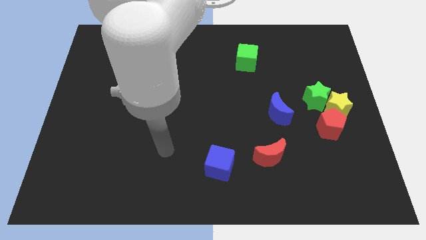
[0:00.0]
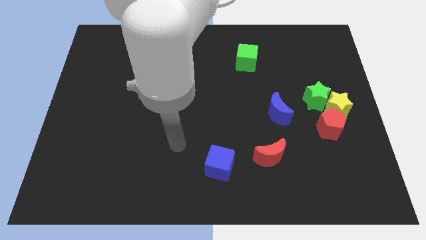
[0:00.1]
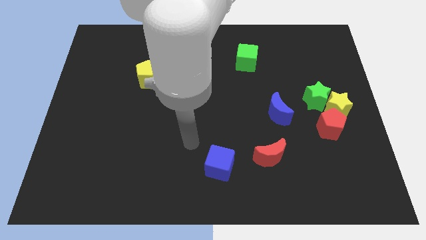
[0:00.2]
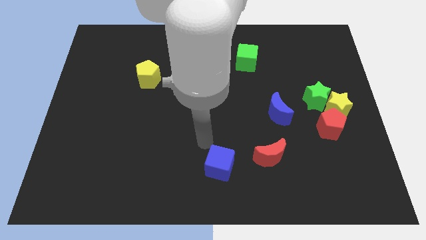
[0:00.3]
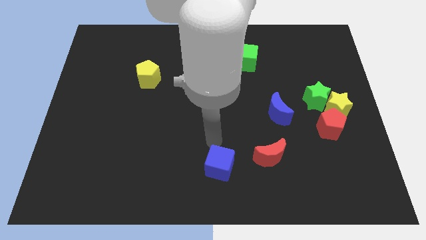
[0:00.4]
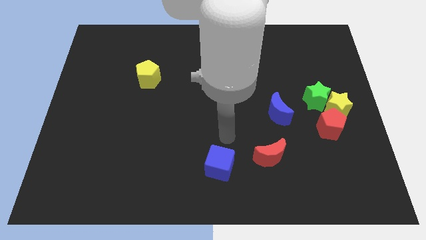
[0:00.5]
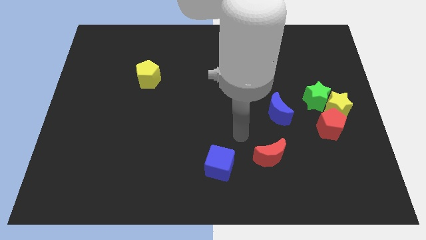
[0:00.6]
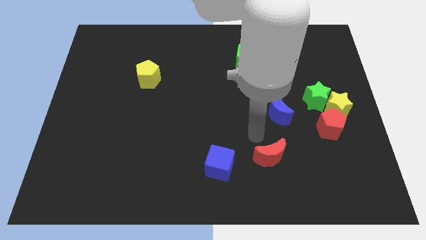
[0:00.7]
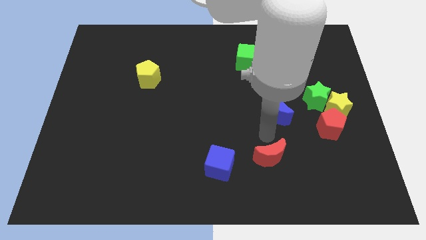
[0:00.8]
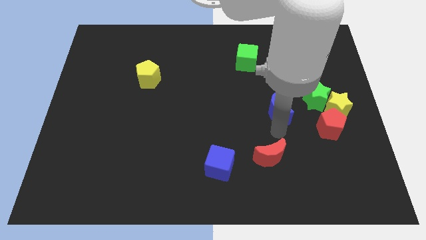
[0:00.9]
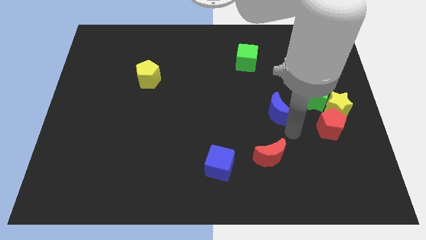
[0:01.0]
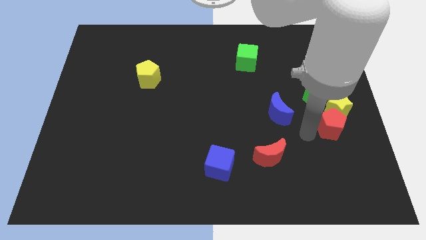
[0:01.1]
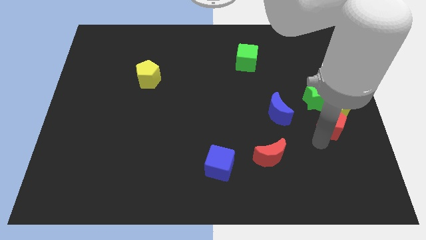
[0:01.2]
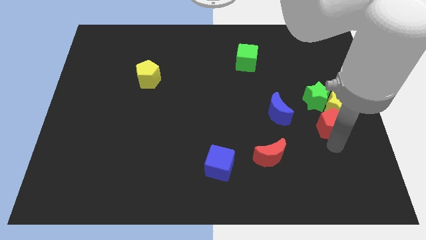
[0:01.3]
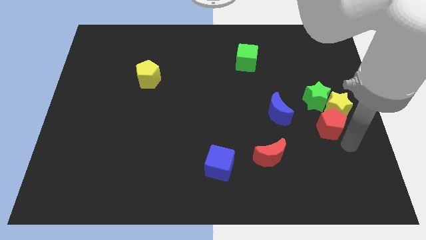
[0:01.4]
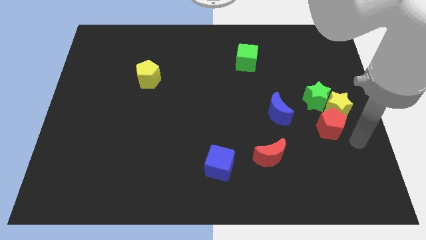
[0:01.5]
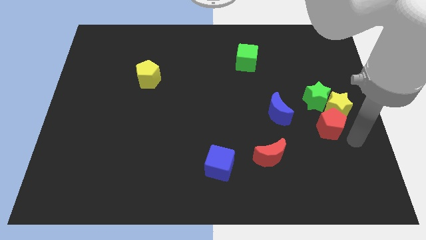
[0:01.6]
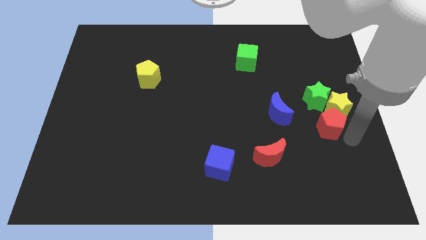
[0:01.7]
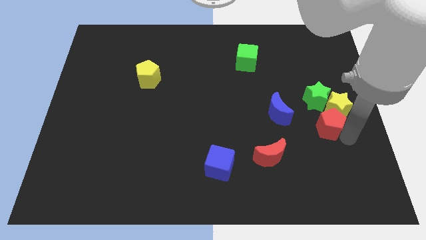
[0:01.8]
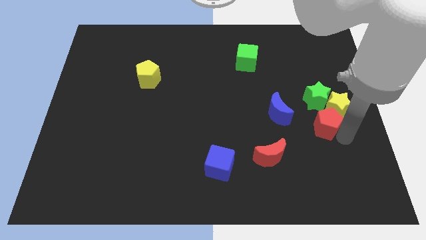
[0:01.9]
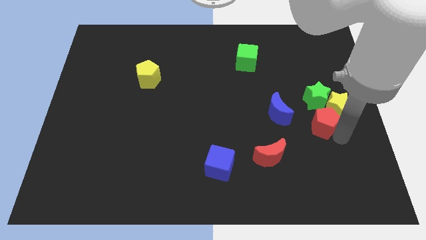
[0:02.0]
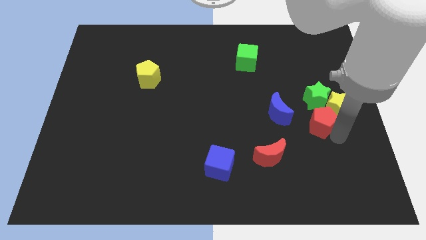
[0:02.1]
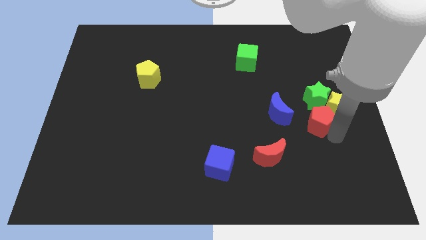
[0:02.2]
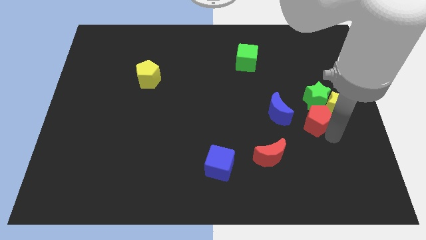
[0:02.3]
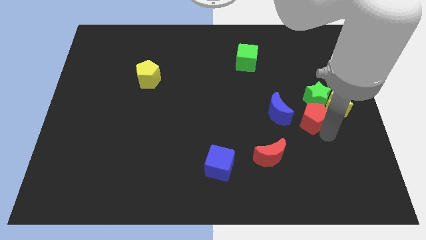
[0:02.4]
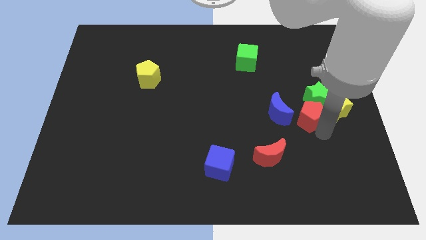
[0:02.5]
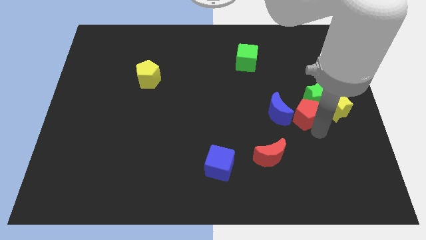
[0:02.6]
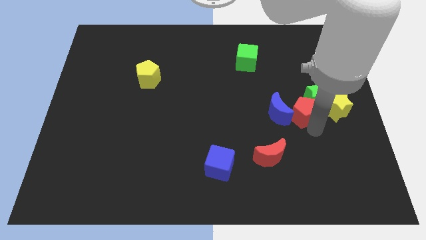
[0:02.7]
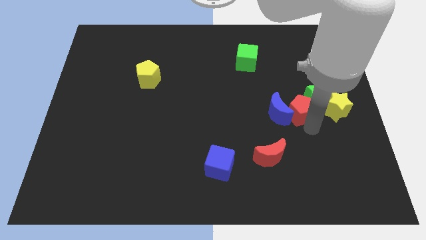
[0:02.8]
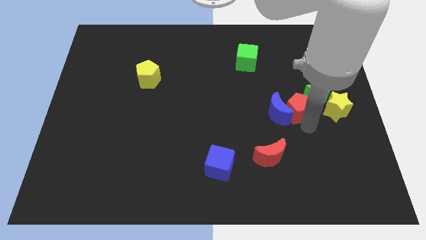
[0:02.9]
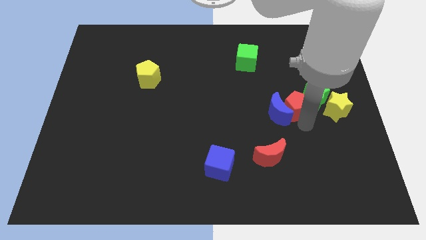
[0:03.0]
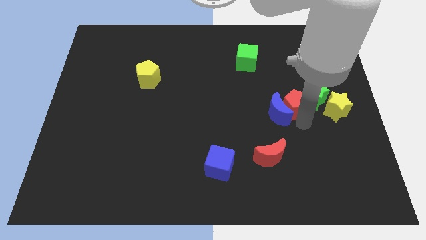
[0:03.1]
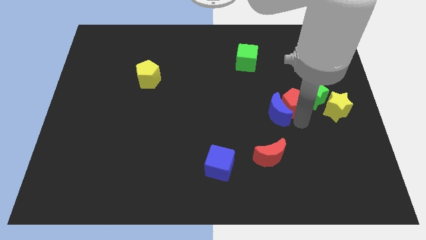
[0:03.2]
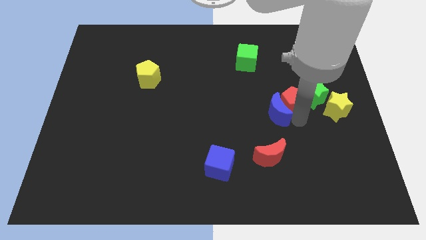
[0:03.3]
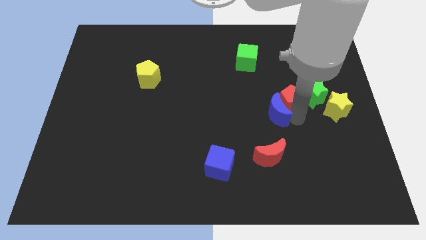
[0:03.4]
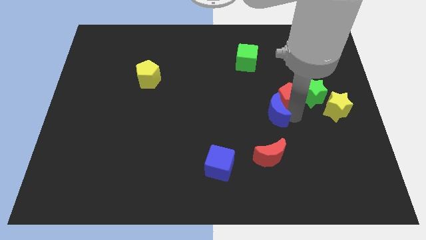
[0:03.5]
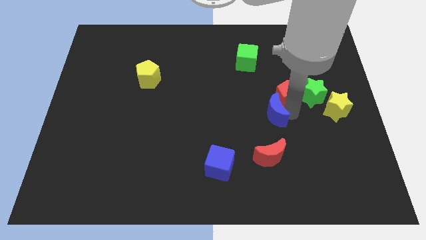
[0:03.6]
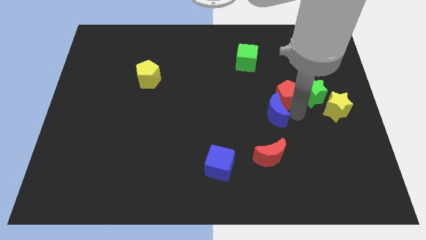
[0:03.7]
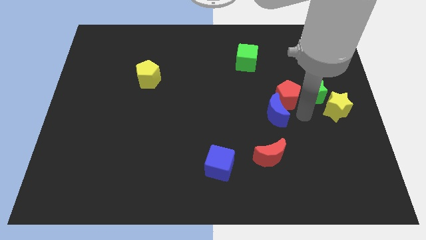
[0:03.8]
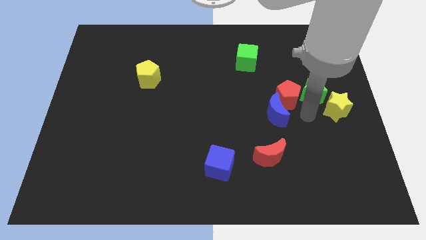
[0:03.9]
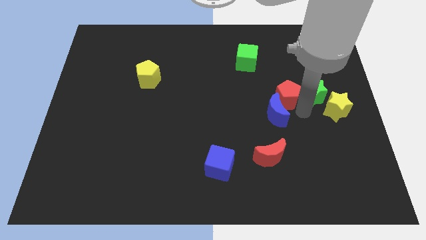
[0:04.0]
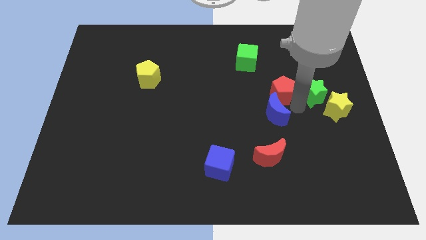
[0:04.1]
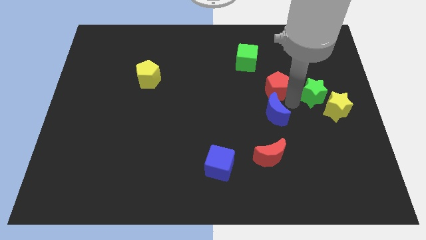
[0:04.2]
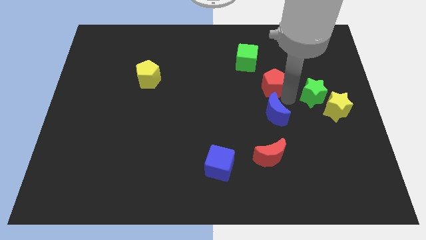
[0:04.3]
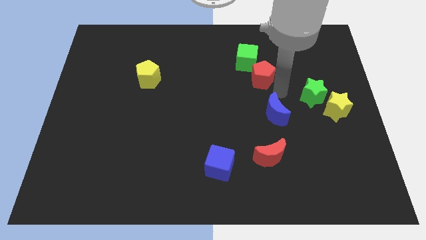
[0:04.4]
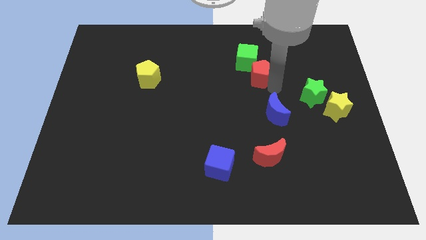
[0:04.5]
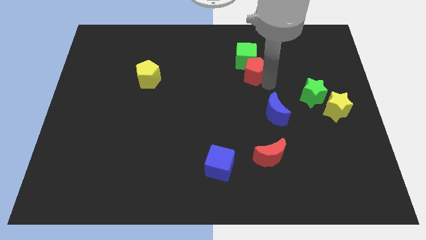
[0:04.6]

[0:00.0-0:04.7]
put the red pentagon close to the green cube

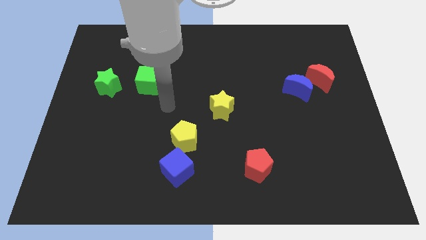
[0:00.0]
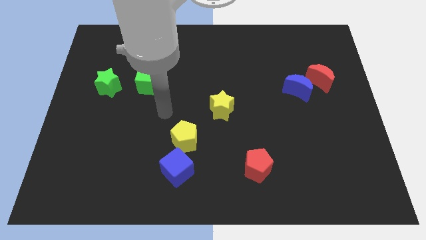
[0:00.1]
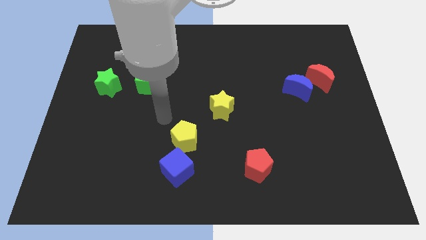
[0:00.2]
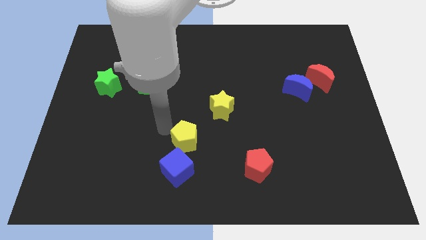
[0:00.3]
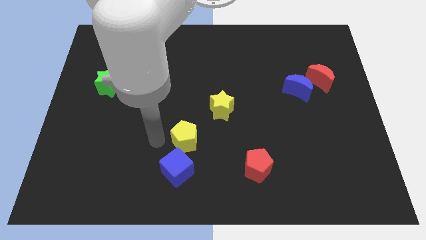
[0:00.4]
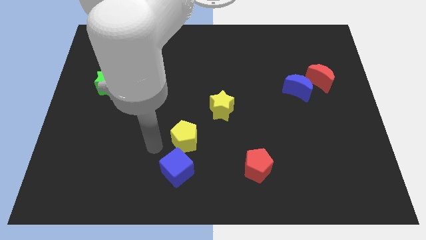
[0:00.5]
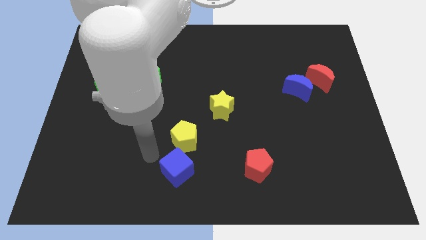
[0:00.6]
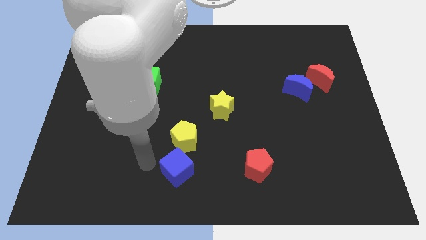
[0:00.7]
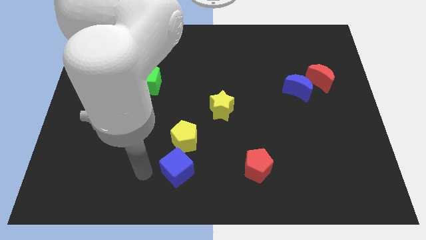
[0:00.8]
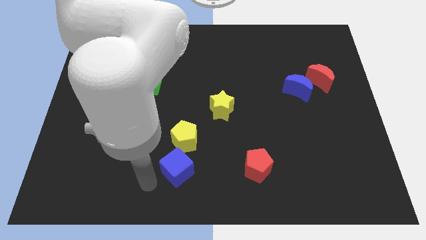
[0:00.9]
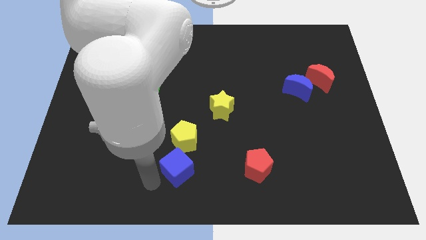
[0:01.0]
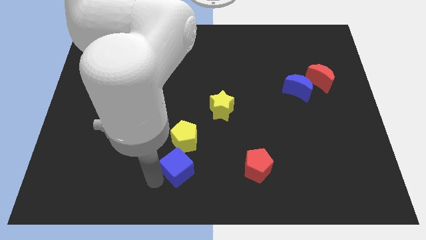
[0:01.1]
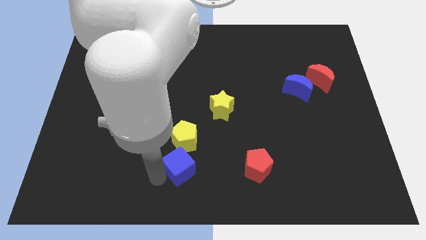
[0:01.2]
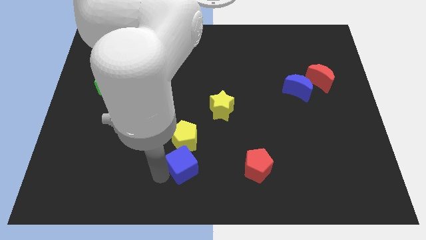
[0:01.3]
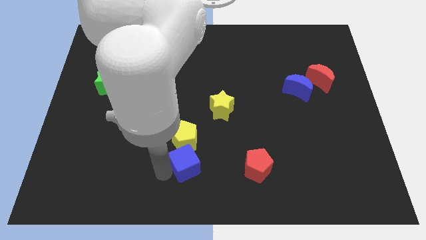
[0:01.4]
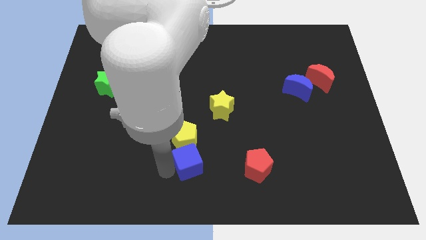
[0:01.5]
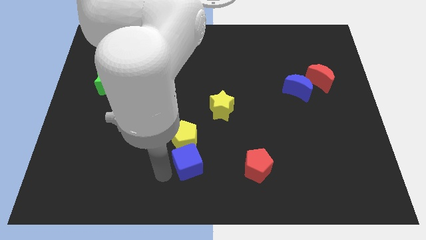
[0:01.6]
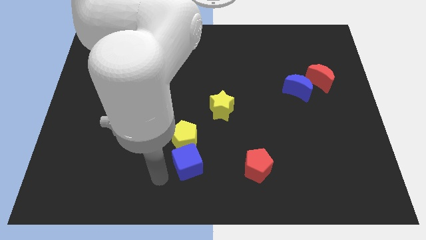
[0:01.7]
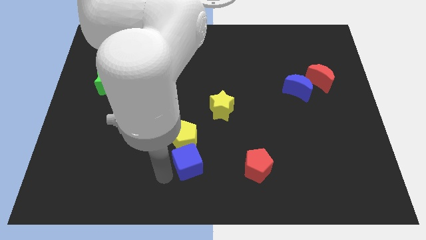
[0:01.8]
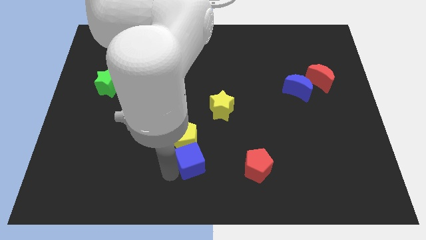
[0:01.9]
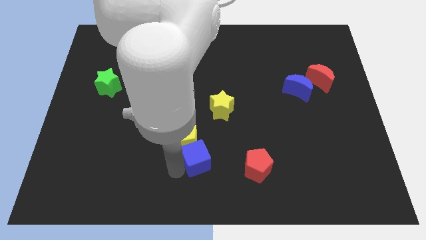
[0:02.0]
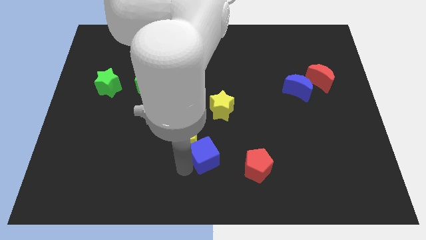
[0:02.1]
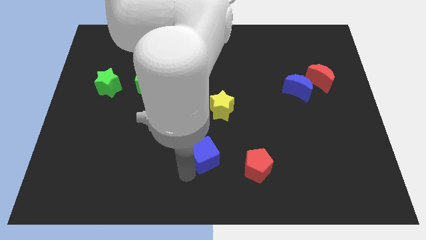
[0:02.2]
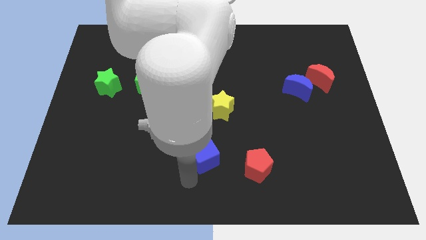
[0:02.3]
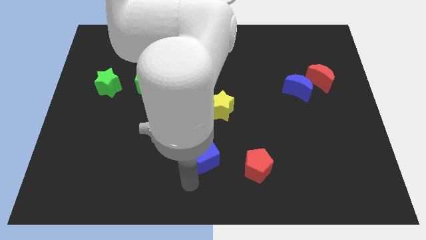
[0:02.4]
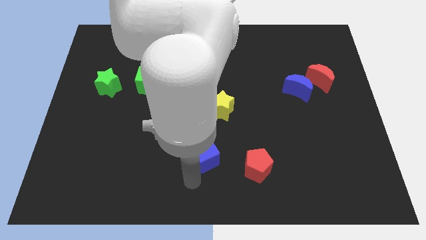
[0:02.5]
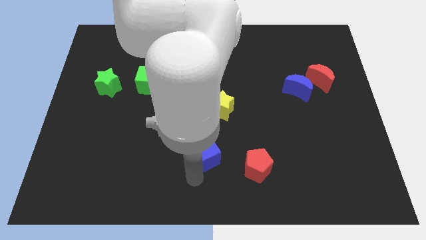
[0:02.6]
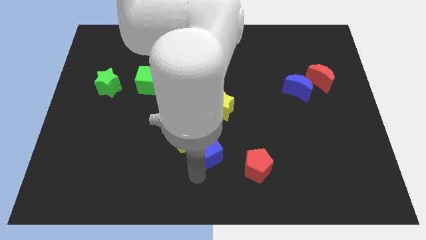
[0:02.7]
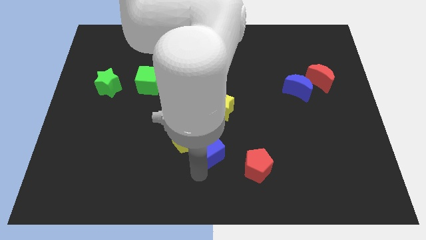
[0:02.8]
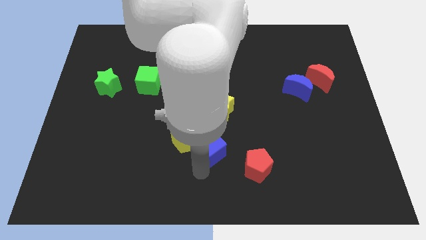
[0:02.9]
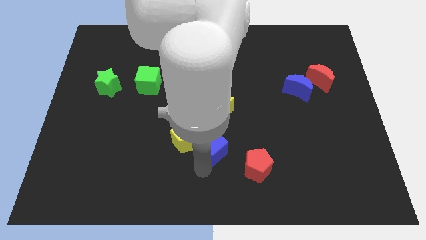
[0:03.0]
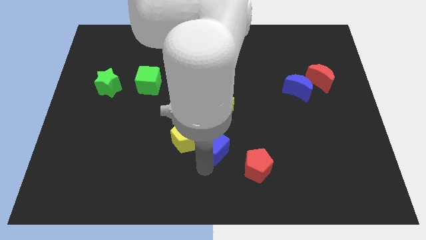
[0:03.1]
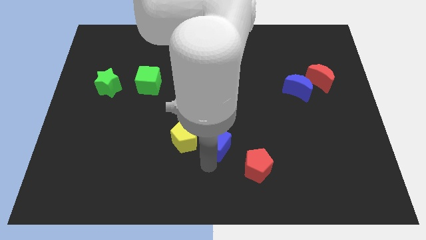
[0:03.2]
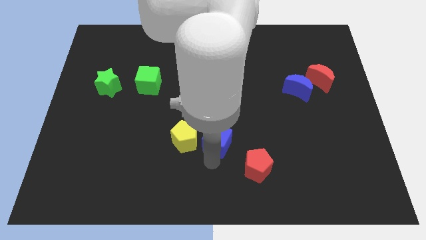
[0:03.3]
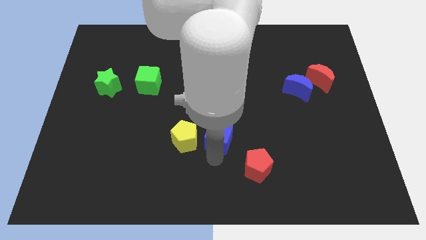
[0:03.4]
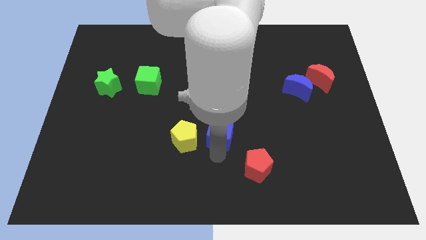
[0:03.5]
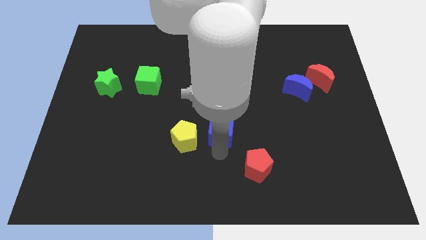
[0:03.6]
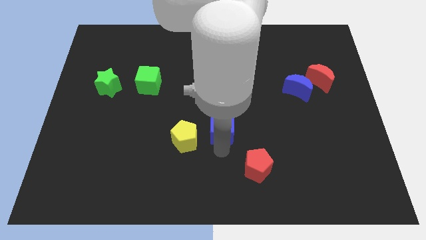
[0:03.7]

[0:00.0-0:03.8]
put the blue cube to the yellow star
